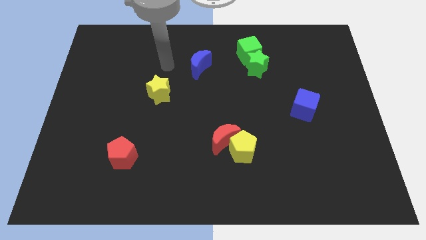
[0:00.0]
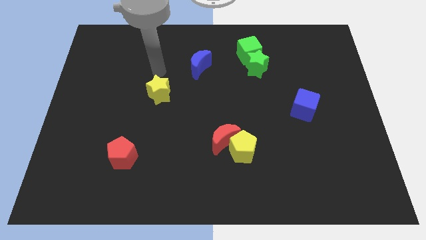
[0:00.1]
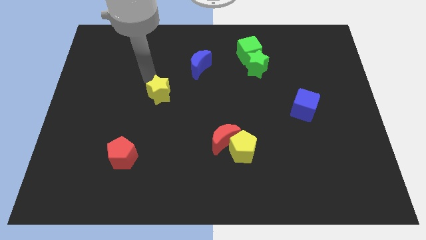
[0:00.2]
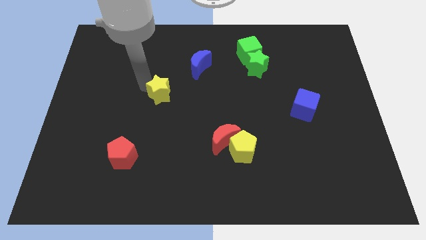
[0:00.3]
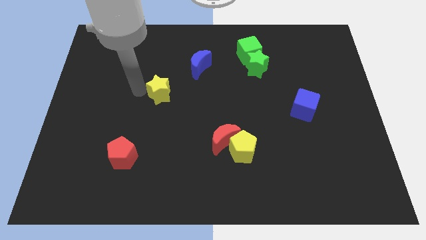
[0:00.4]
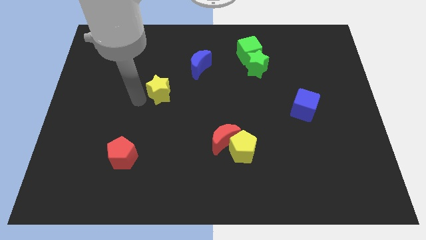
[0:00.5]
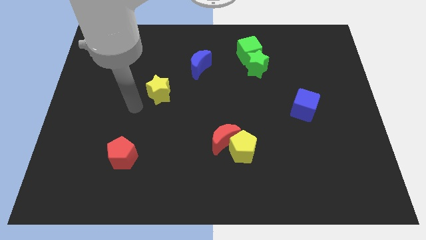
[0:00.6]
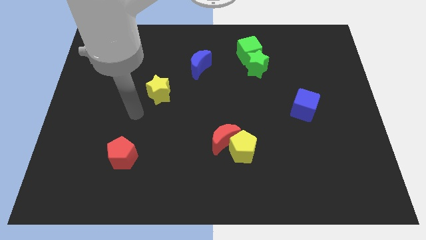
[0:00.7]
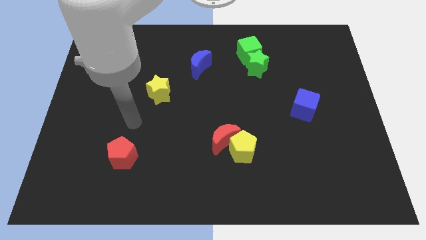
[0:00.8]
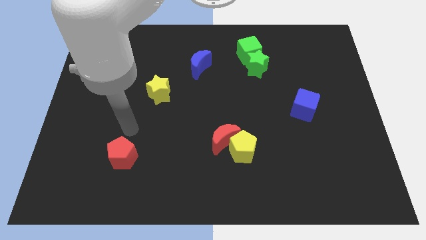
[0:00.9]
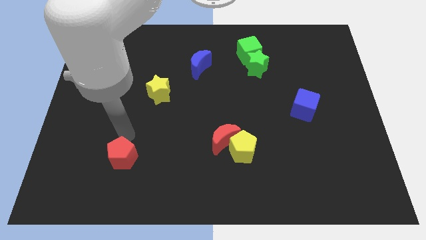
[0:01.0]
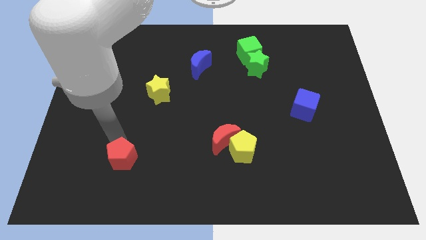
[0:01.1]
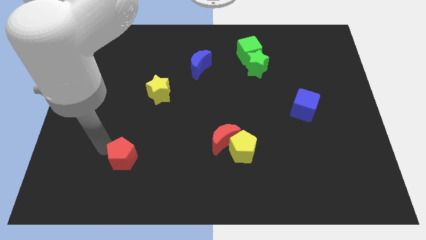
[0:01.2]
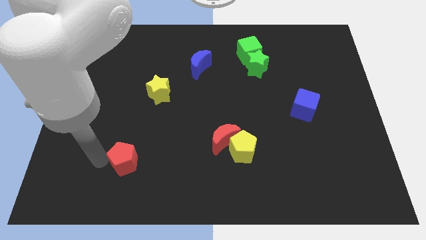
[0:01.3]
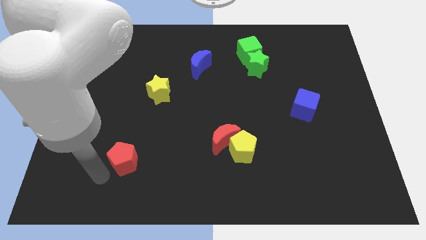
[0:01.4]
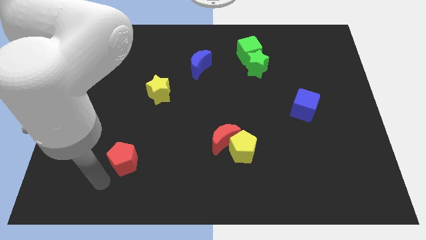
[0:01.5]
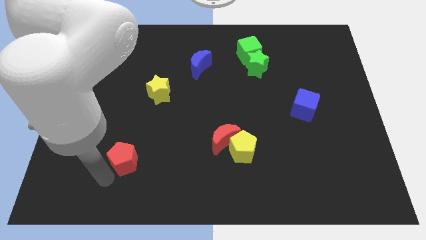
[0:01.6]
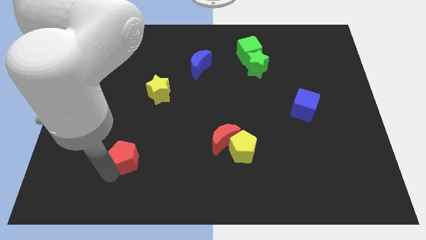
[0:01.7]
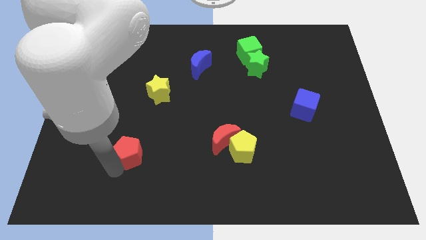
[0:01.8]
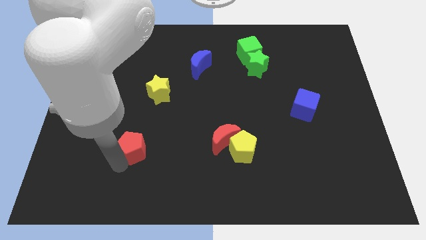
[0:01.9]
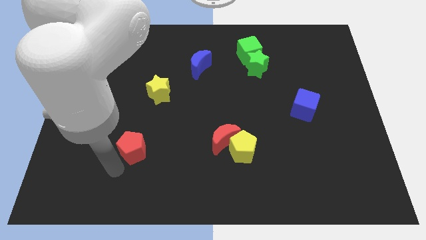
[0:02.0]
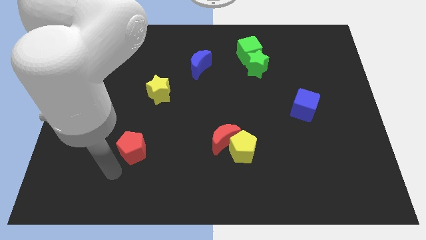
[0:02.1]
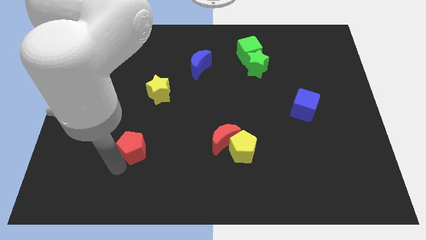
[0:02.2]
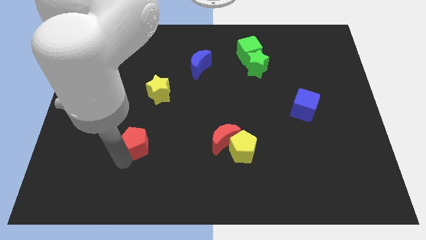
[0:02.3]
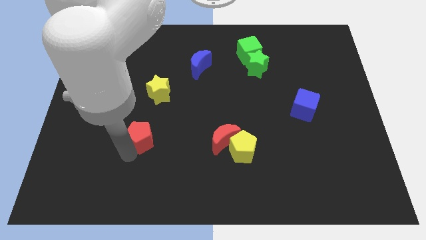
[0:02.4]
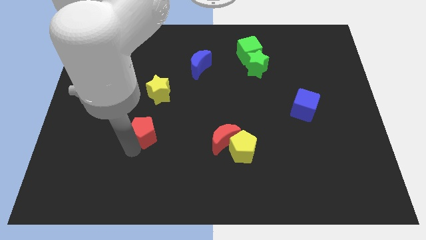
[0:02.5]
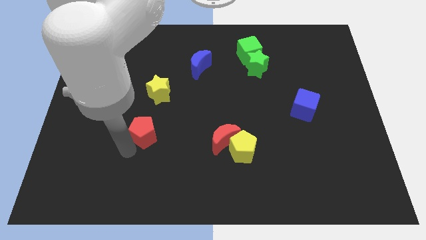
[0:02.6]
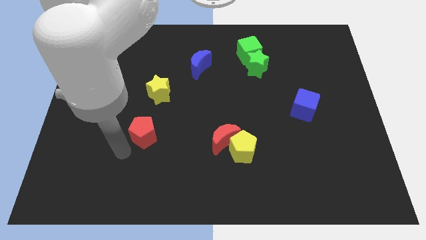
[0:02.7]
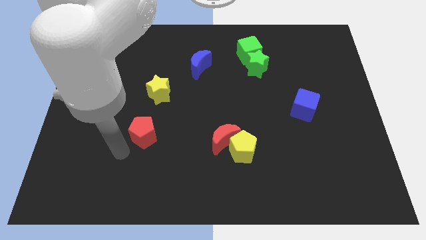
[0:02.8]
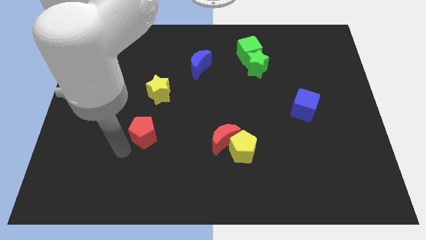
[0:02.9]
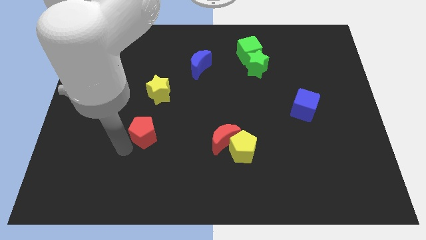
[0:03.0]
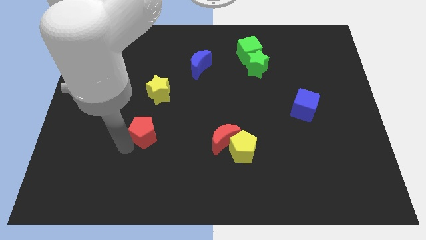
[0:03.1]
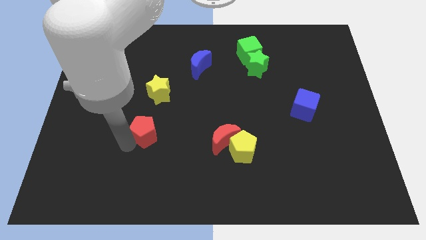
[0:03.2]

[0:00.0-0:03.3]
push the red pentagon upwards and to the right diagonally a little bit

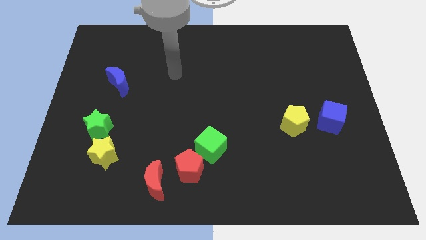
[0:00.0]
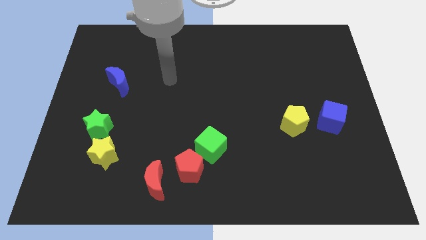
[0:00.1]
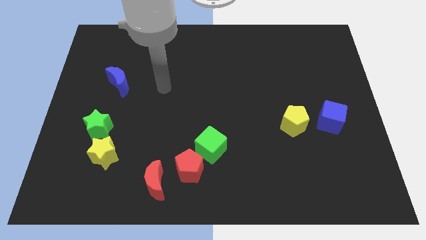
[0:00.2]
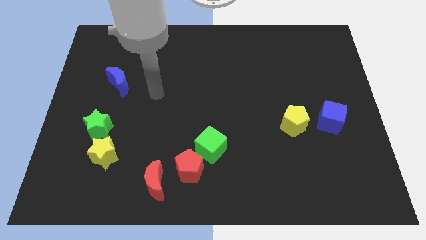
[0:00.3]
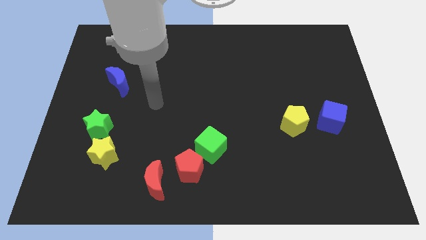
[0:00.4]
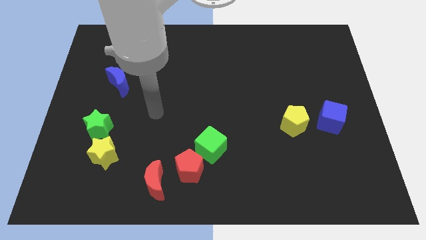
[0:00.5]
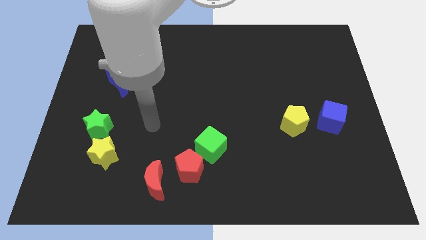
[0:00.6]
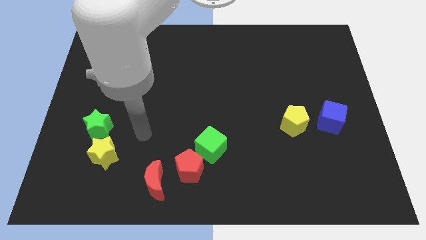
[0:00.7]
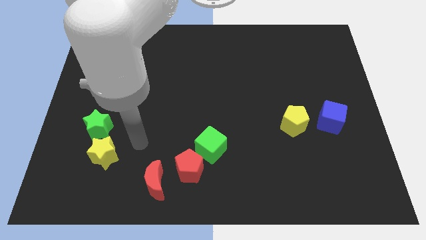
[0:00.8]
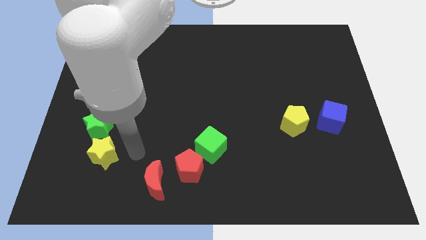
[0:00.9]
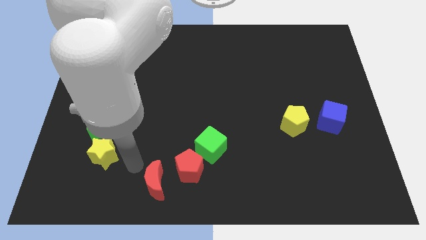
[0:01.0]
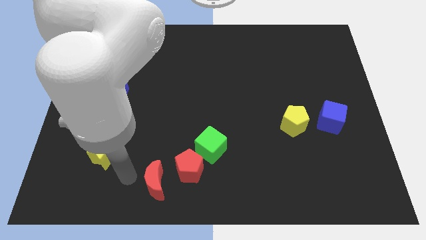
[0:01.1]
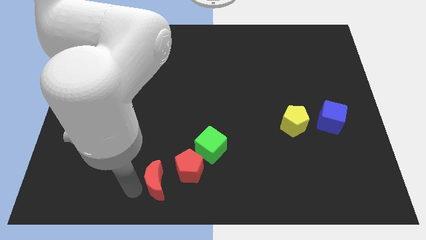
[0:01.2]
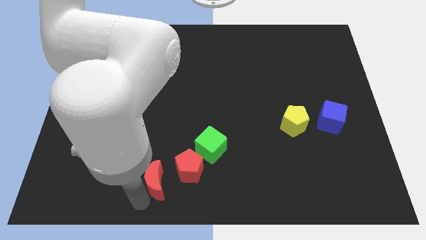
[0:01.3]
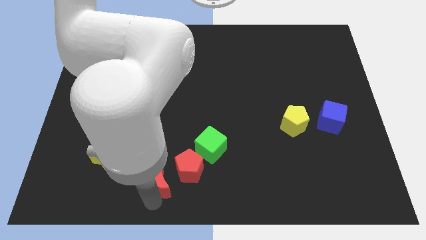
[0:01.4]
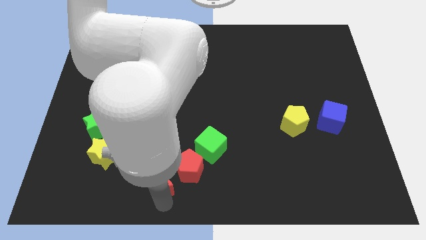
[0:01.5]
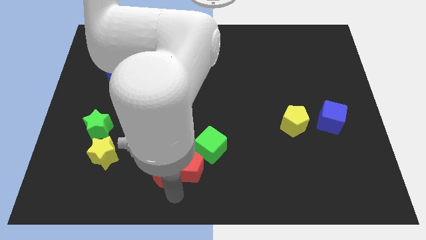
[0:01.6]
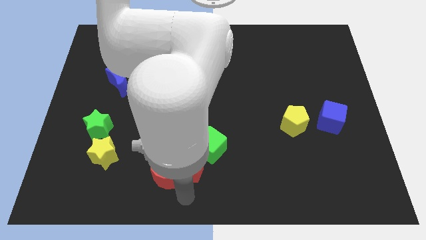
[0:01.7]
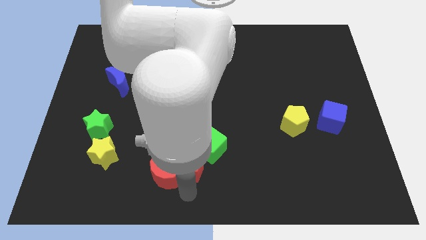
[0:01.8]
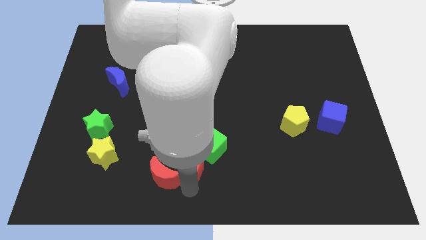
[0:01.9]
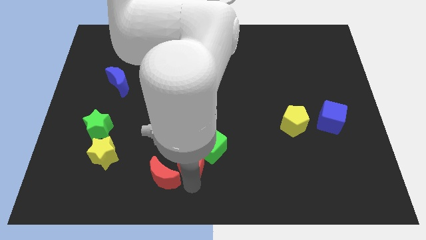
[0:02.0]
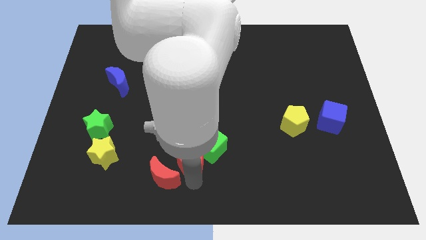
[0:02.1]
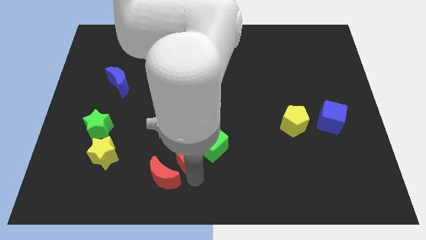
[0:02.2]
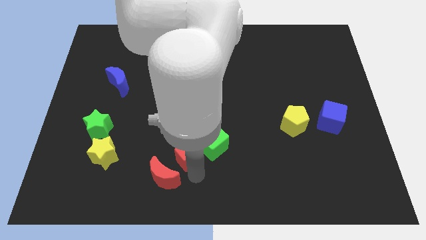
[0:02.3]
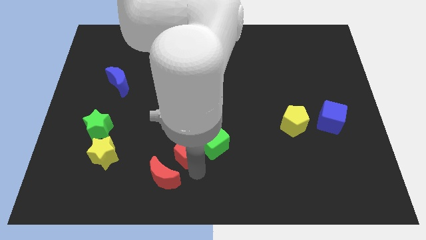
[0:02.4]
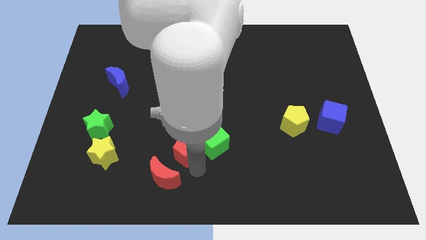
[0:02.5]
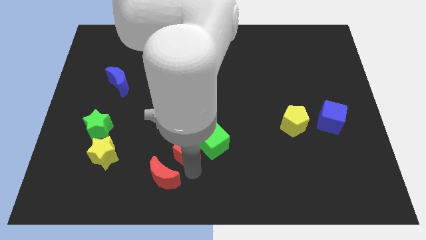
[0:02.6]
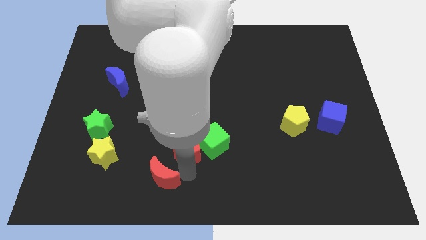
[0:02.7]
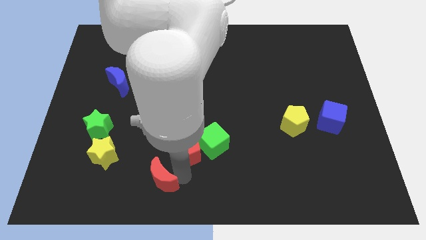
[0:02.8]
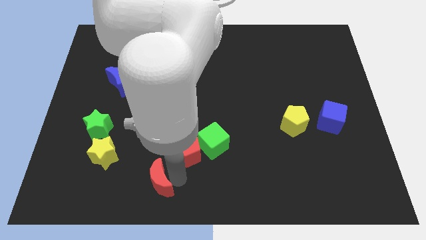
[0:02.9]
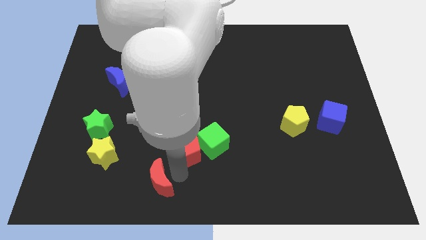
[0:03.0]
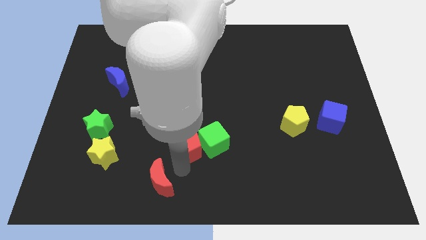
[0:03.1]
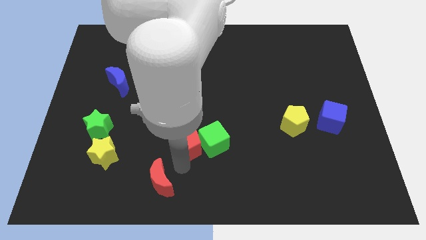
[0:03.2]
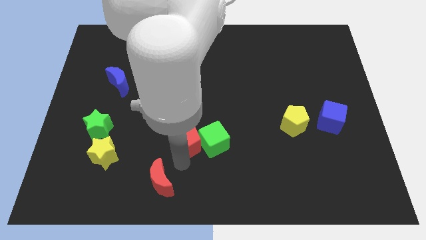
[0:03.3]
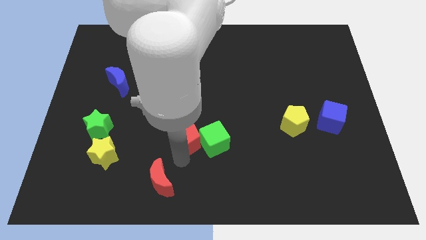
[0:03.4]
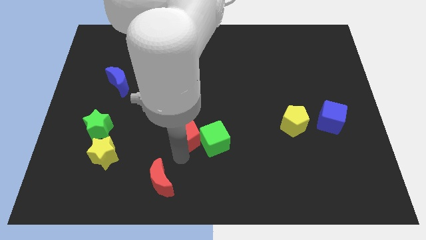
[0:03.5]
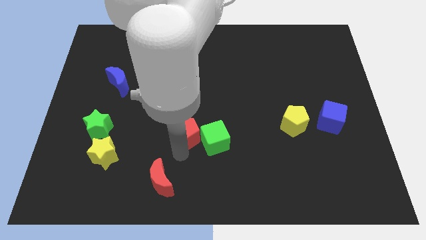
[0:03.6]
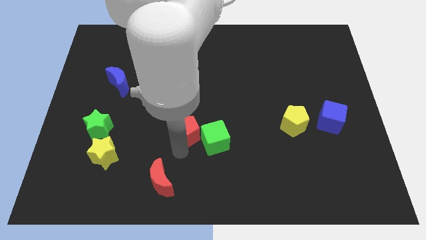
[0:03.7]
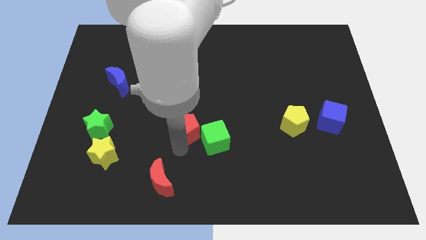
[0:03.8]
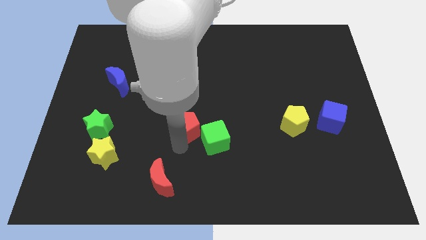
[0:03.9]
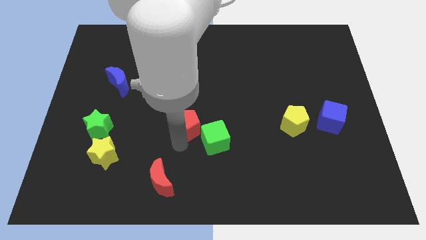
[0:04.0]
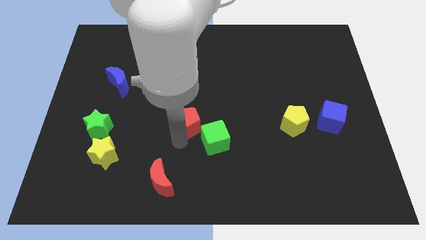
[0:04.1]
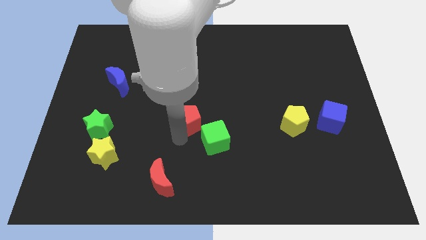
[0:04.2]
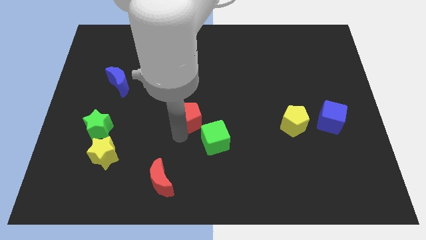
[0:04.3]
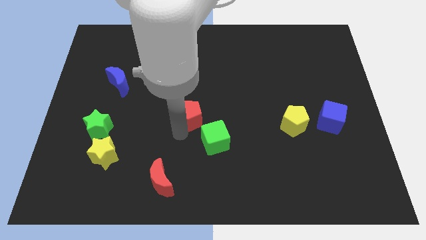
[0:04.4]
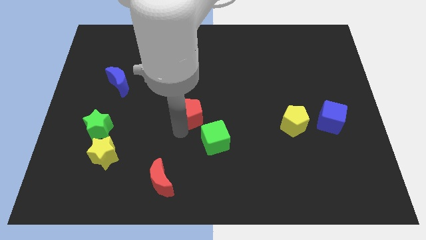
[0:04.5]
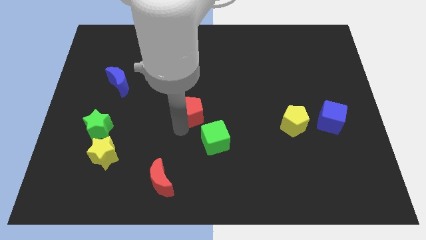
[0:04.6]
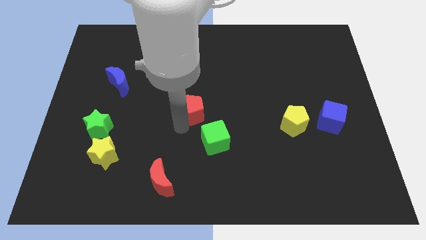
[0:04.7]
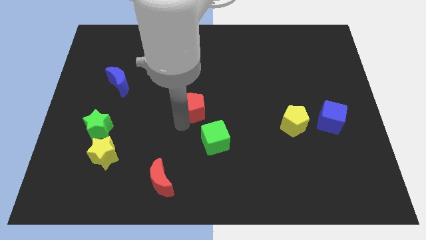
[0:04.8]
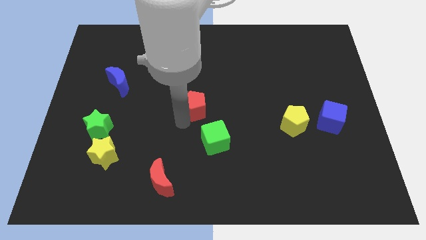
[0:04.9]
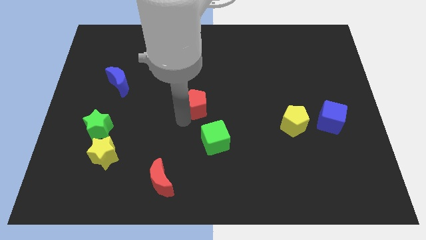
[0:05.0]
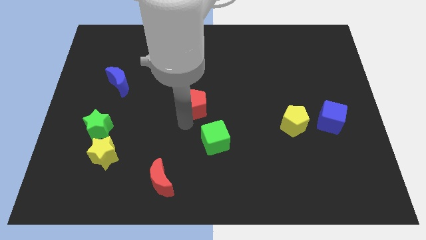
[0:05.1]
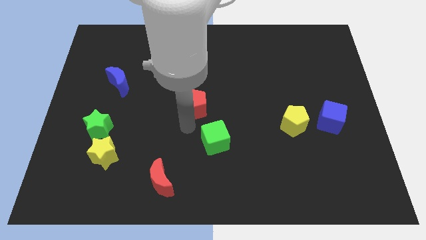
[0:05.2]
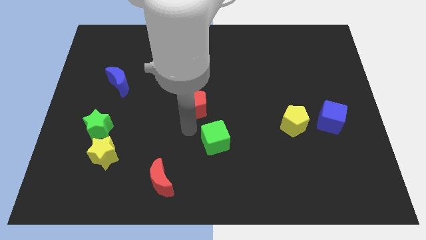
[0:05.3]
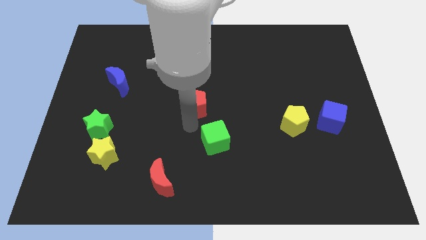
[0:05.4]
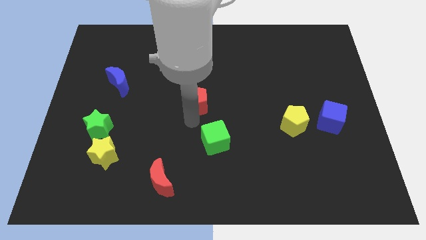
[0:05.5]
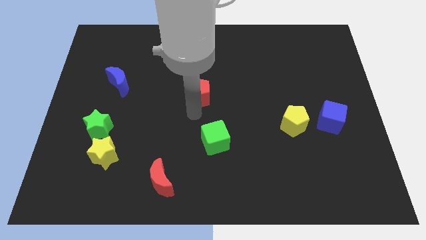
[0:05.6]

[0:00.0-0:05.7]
move the red pentagon upwards
